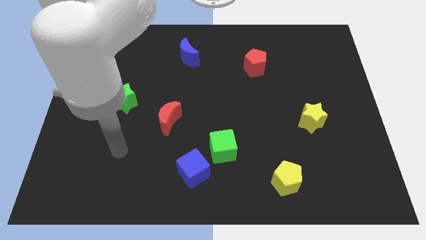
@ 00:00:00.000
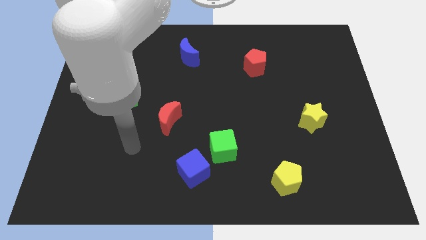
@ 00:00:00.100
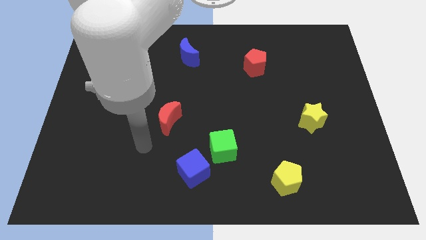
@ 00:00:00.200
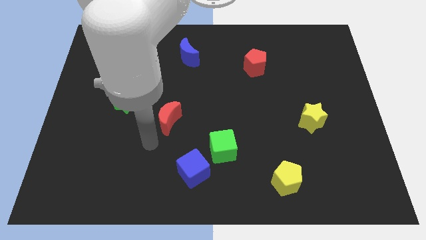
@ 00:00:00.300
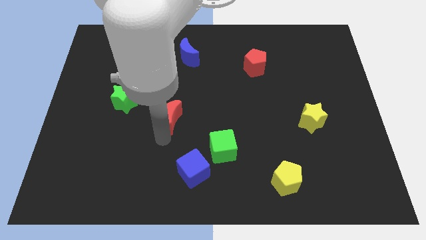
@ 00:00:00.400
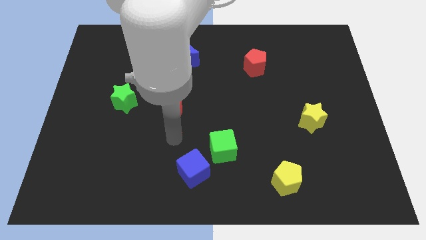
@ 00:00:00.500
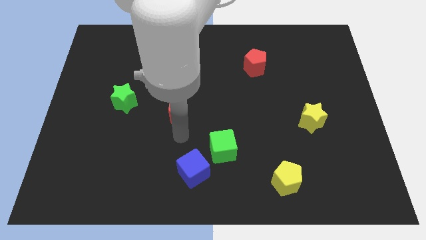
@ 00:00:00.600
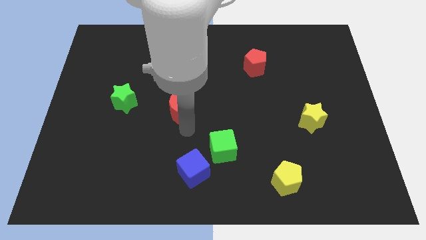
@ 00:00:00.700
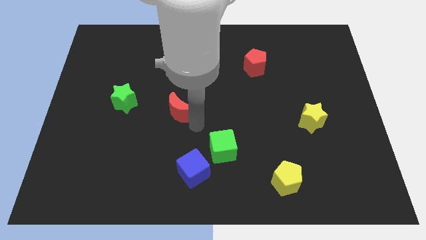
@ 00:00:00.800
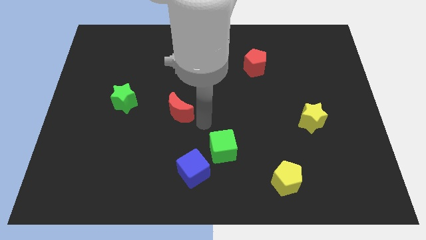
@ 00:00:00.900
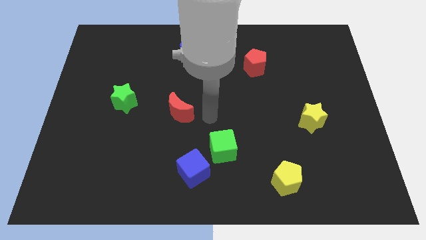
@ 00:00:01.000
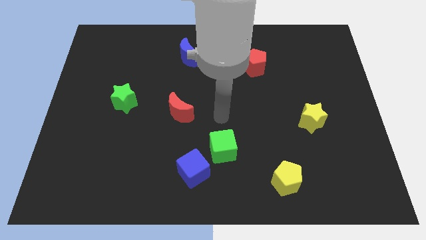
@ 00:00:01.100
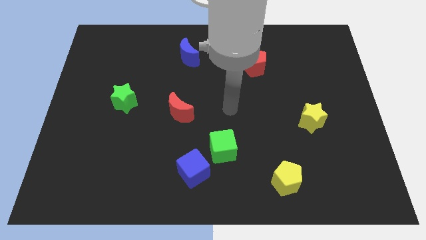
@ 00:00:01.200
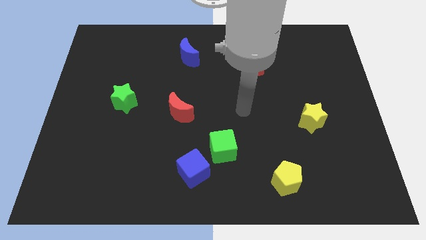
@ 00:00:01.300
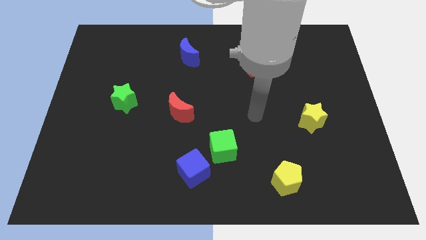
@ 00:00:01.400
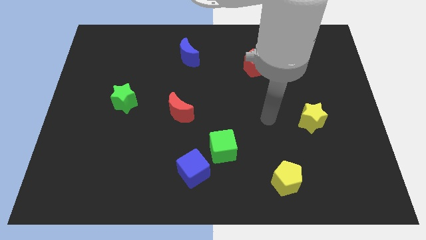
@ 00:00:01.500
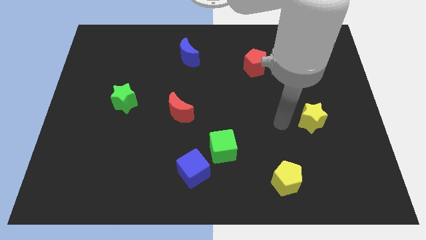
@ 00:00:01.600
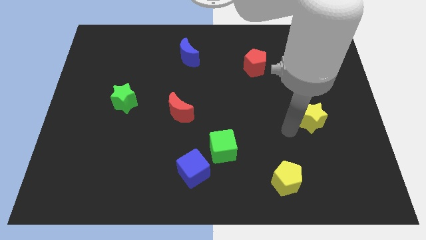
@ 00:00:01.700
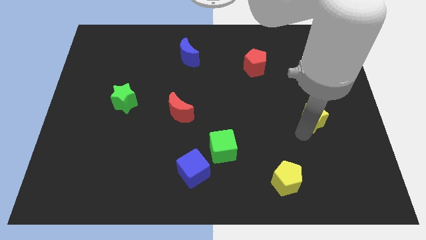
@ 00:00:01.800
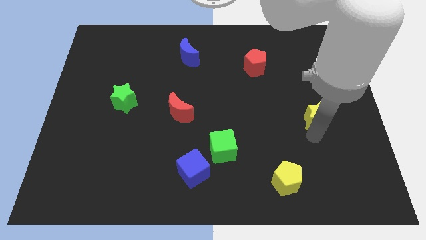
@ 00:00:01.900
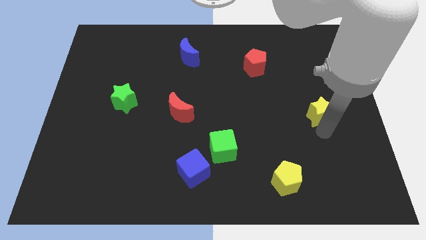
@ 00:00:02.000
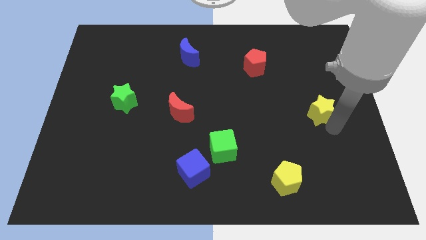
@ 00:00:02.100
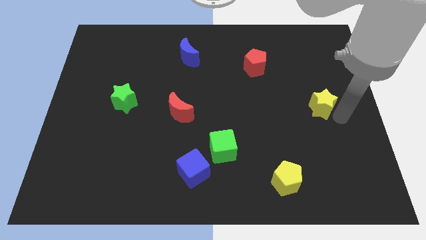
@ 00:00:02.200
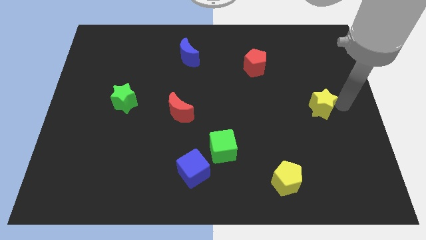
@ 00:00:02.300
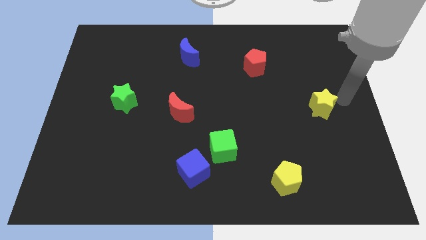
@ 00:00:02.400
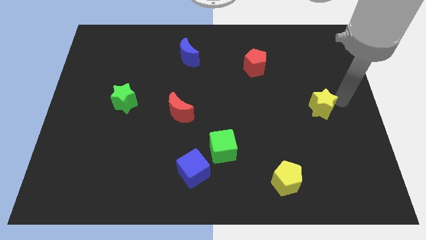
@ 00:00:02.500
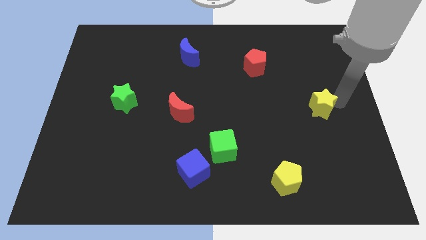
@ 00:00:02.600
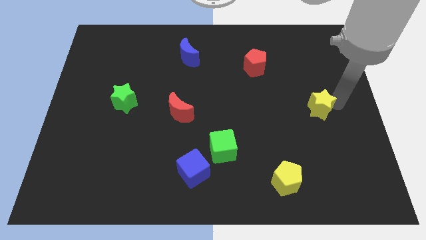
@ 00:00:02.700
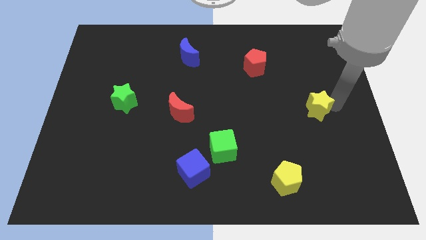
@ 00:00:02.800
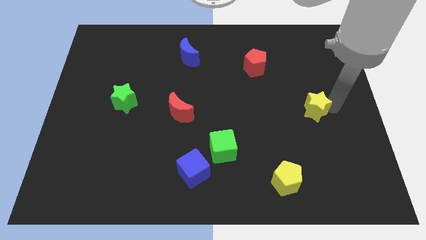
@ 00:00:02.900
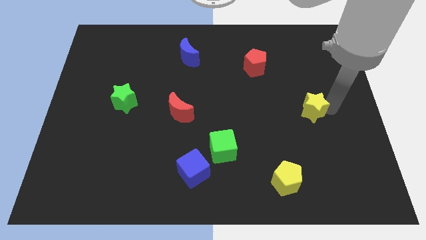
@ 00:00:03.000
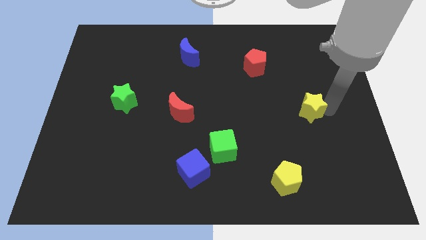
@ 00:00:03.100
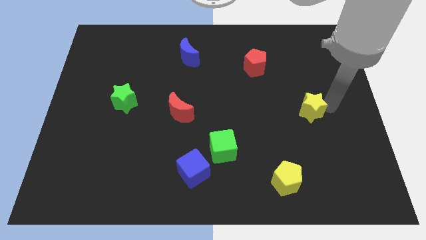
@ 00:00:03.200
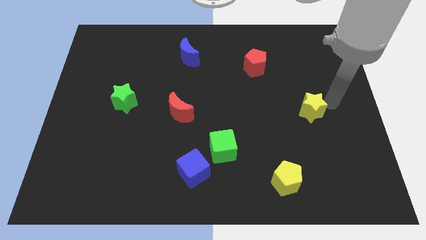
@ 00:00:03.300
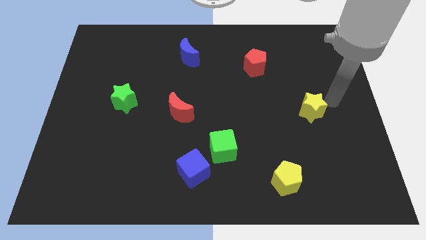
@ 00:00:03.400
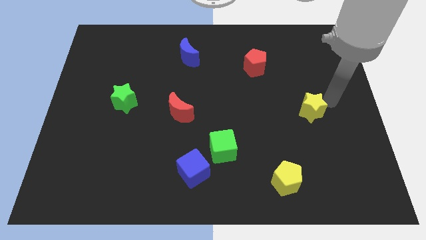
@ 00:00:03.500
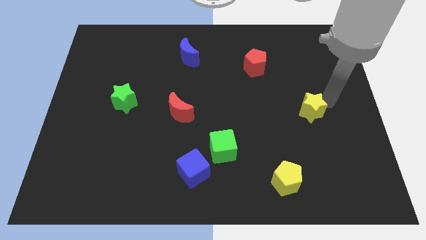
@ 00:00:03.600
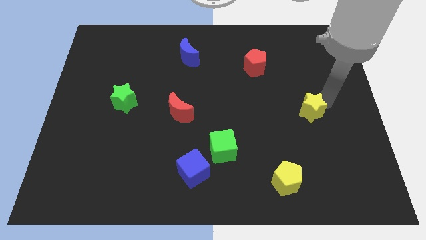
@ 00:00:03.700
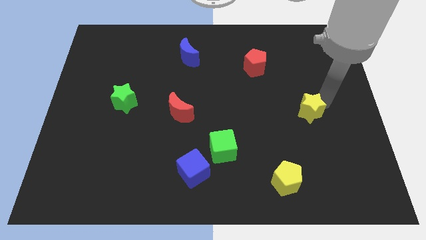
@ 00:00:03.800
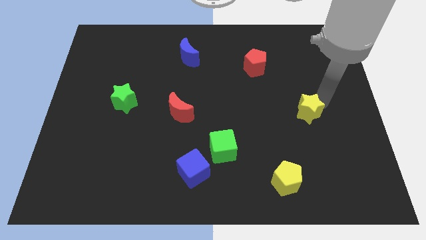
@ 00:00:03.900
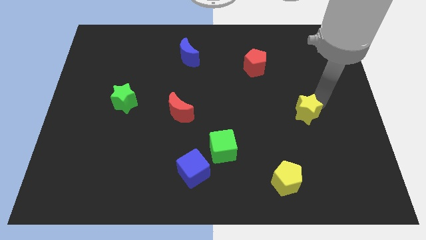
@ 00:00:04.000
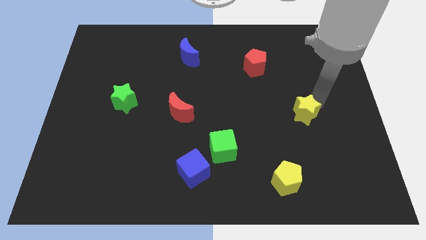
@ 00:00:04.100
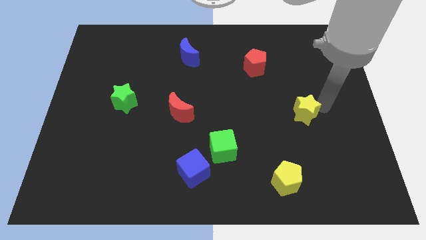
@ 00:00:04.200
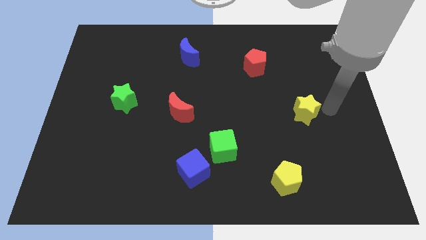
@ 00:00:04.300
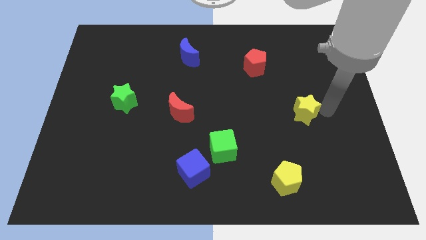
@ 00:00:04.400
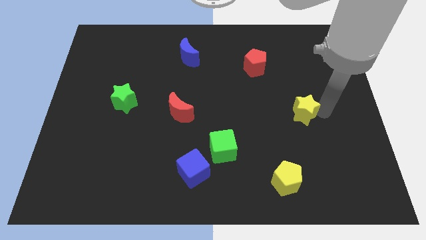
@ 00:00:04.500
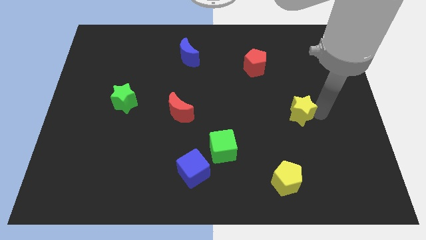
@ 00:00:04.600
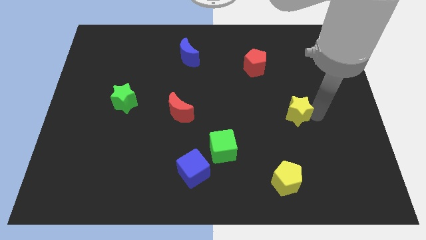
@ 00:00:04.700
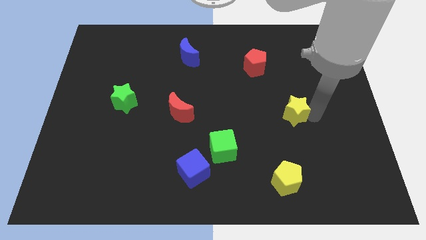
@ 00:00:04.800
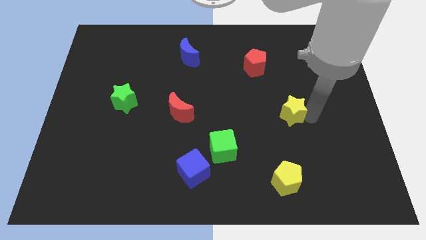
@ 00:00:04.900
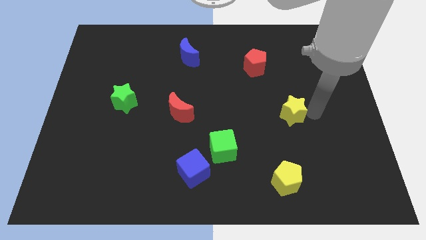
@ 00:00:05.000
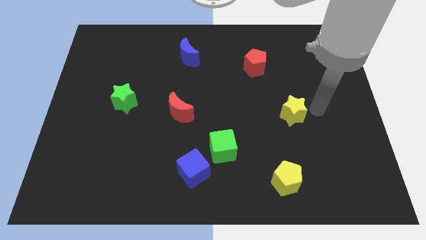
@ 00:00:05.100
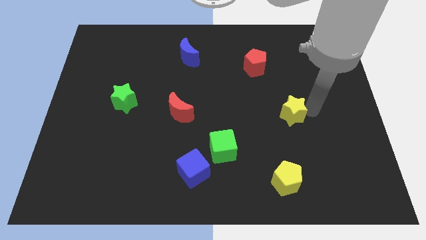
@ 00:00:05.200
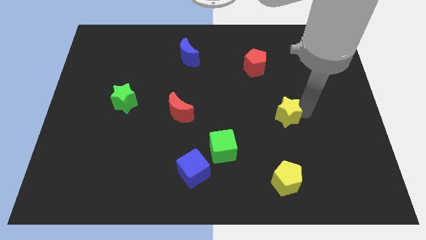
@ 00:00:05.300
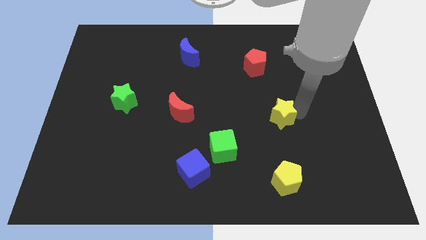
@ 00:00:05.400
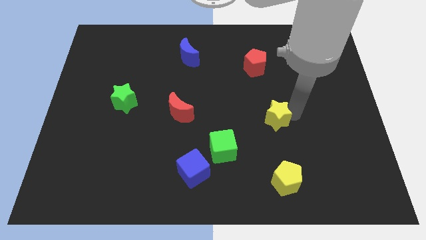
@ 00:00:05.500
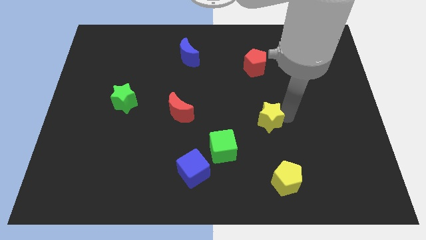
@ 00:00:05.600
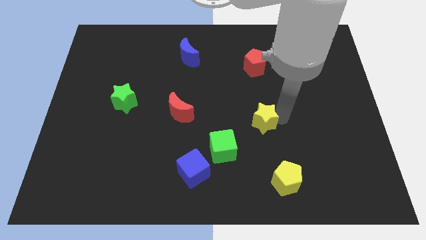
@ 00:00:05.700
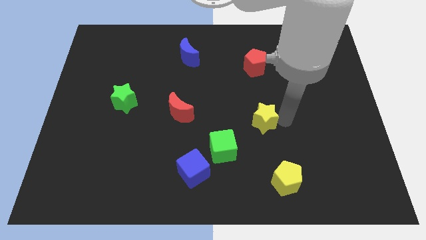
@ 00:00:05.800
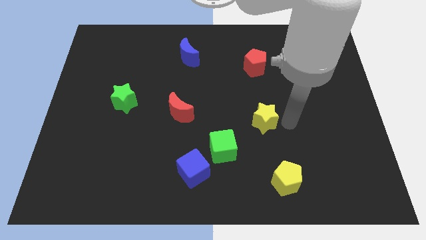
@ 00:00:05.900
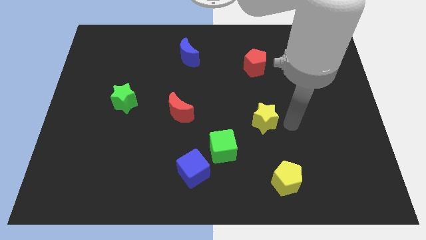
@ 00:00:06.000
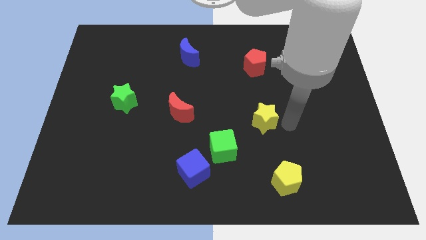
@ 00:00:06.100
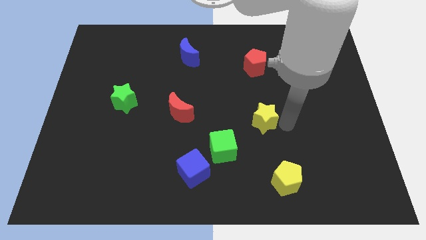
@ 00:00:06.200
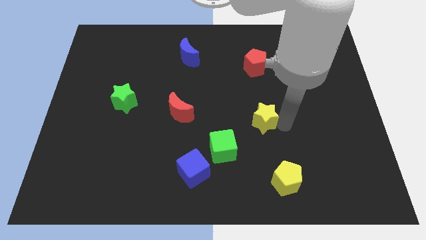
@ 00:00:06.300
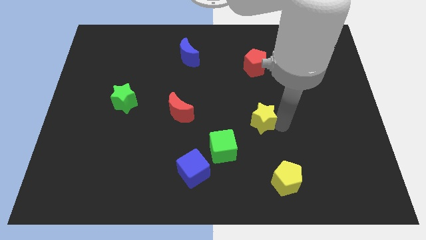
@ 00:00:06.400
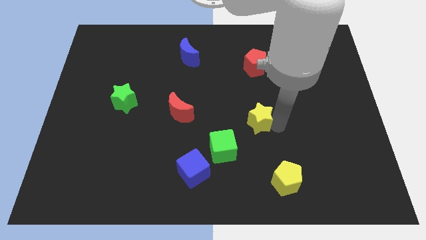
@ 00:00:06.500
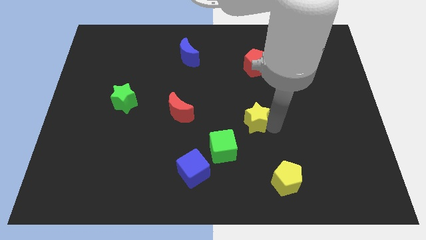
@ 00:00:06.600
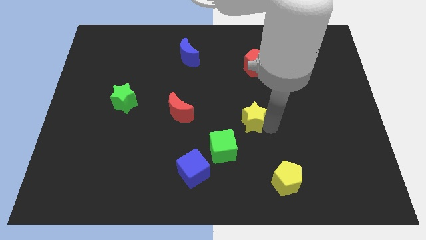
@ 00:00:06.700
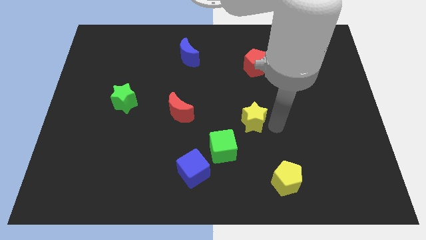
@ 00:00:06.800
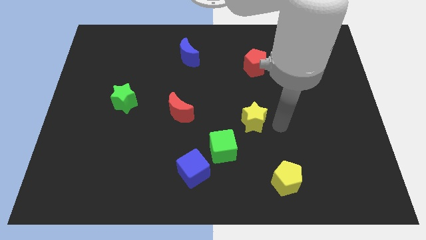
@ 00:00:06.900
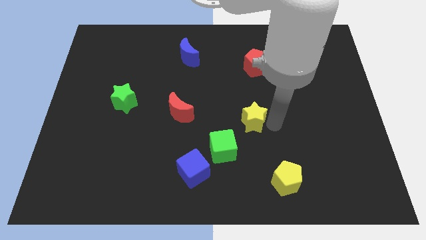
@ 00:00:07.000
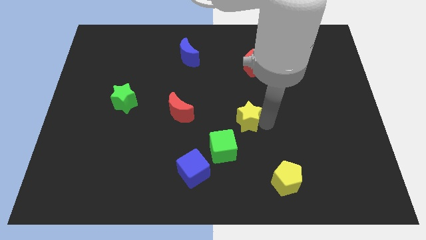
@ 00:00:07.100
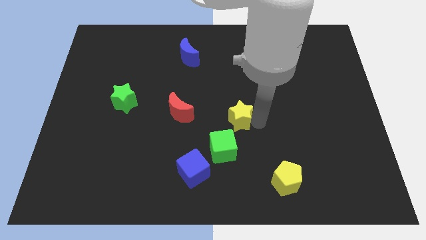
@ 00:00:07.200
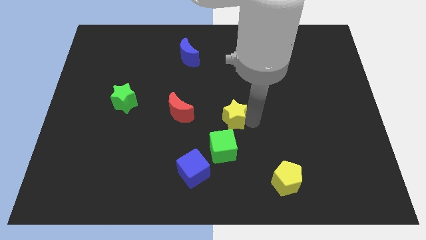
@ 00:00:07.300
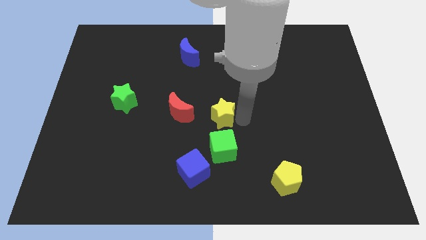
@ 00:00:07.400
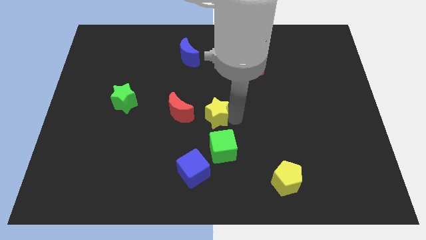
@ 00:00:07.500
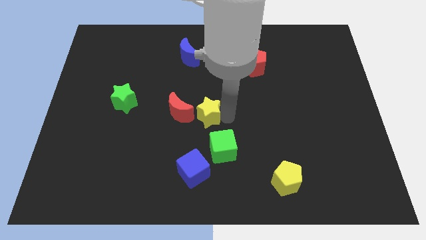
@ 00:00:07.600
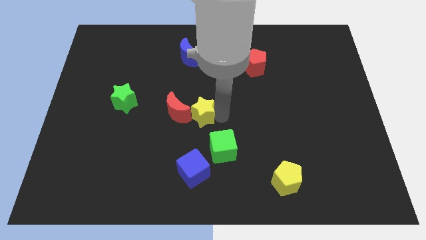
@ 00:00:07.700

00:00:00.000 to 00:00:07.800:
put the yellow star close to the red moon
